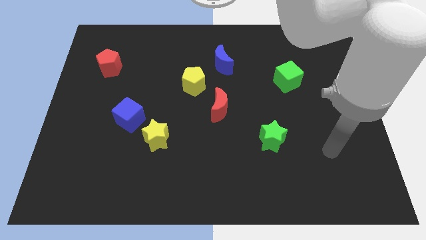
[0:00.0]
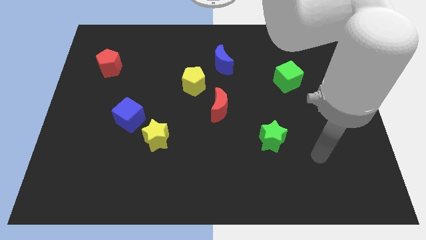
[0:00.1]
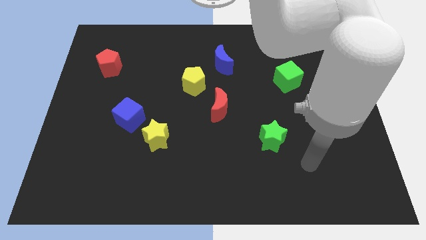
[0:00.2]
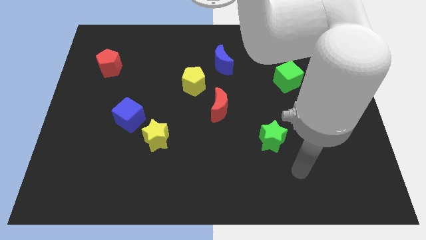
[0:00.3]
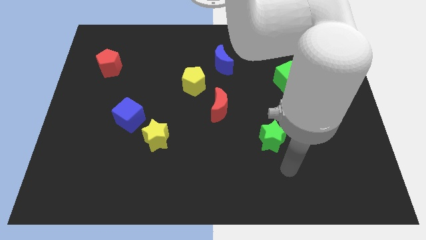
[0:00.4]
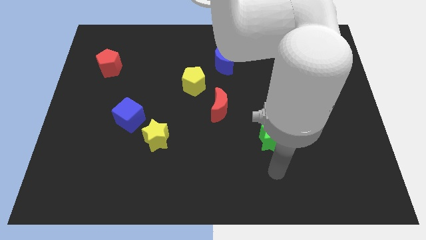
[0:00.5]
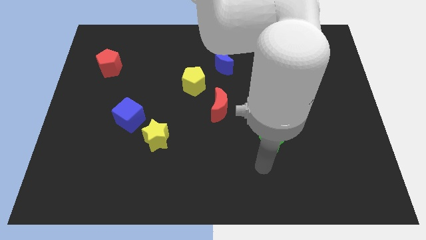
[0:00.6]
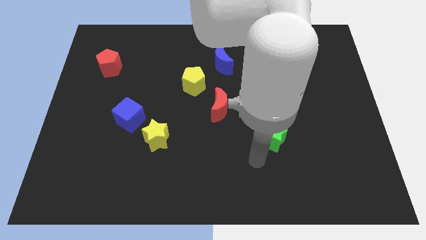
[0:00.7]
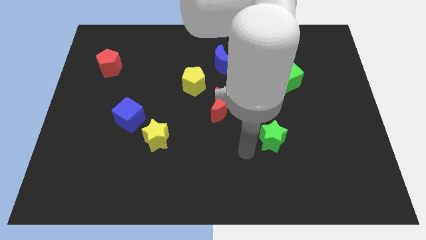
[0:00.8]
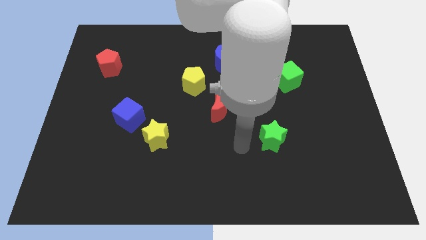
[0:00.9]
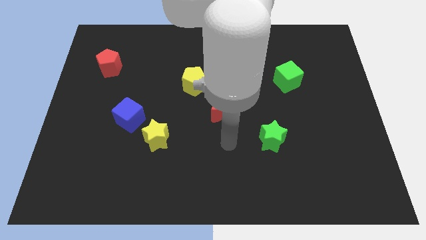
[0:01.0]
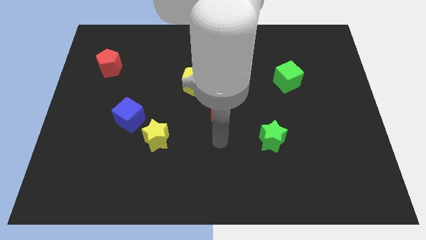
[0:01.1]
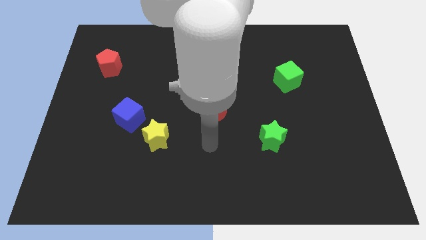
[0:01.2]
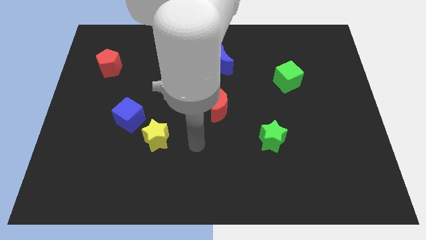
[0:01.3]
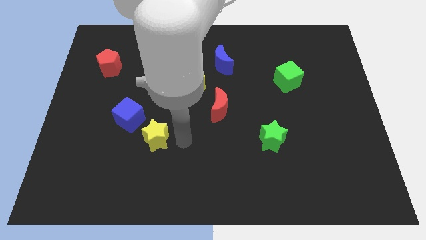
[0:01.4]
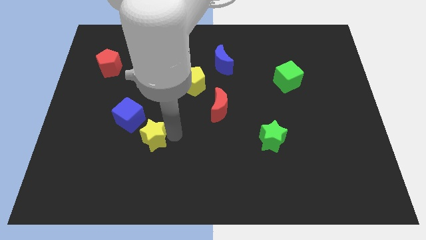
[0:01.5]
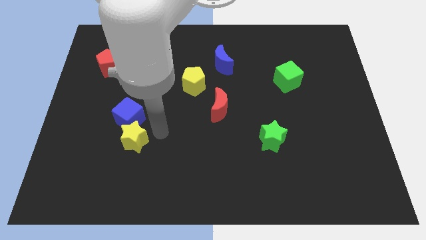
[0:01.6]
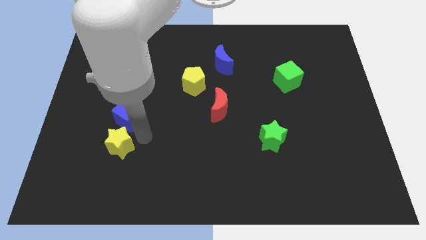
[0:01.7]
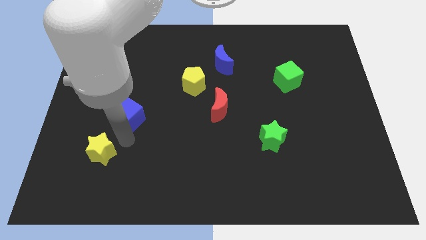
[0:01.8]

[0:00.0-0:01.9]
move the blue cube away from the yellow star

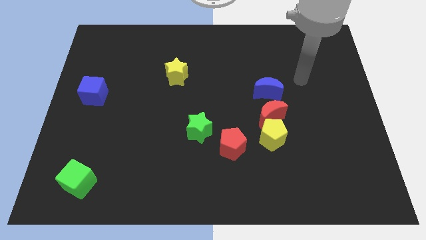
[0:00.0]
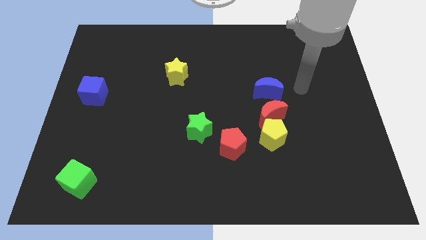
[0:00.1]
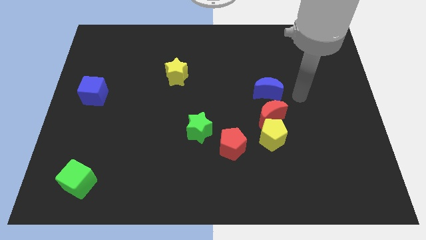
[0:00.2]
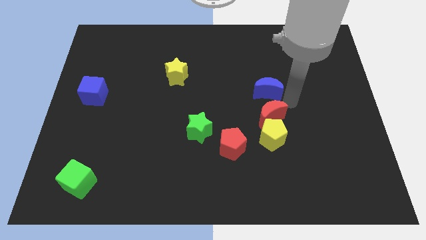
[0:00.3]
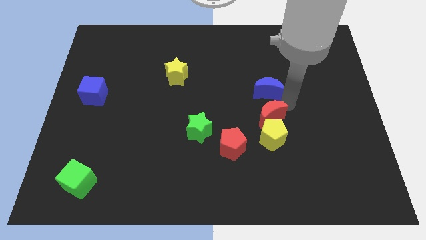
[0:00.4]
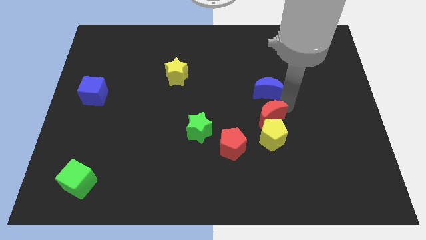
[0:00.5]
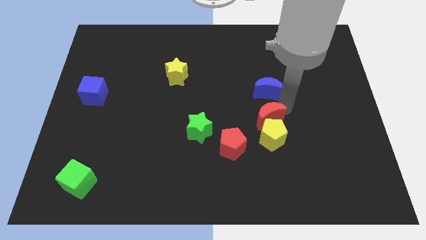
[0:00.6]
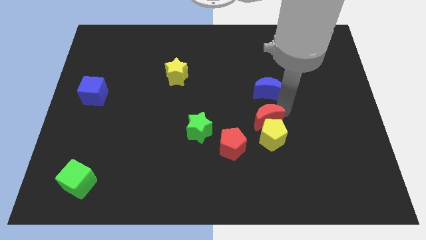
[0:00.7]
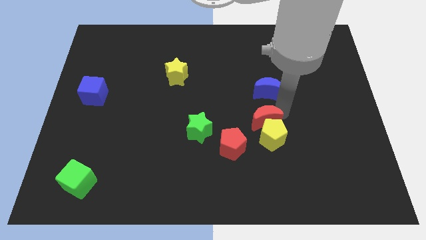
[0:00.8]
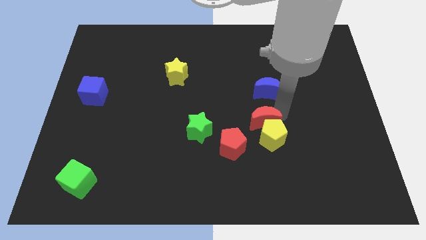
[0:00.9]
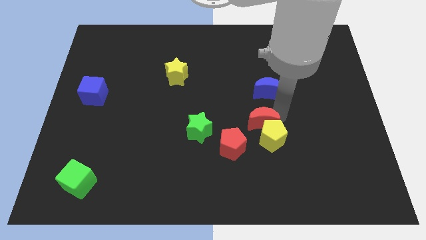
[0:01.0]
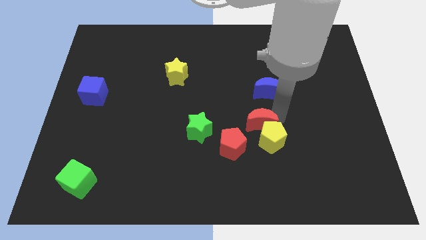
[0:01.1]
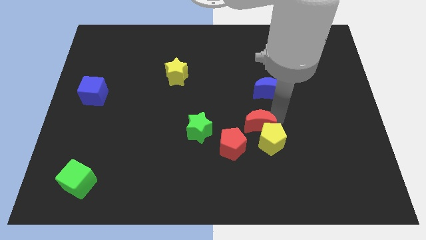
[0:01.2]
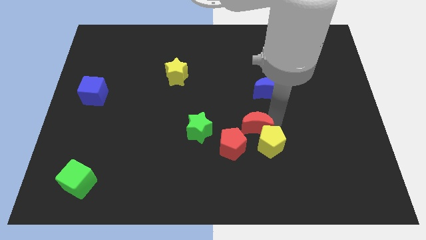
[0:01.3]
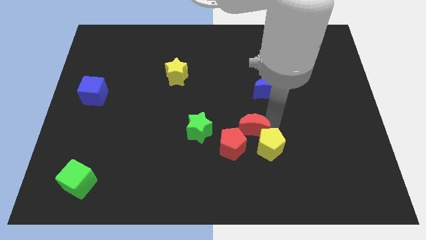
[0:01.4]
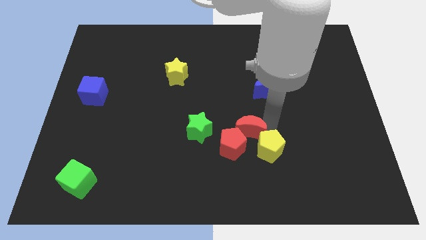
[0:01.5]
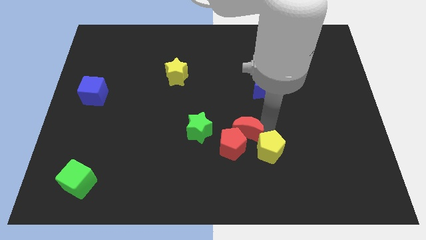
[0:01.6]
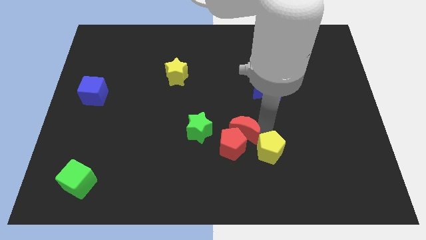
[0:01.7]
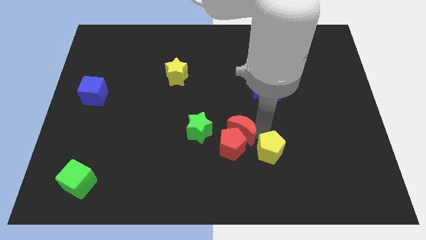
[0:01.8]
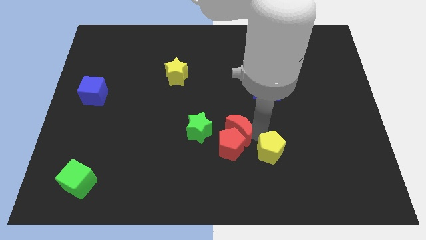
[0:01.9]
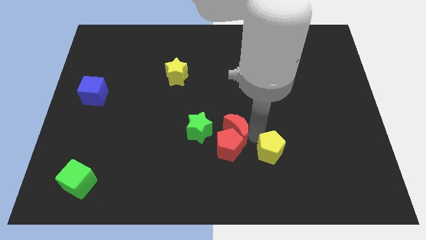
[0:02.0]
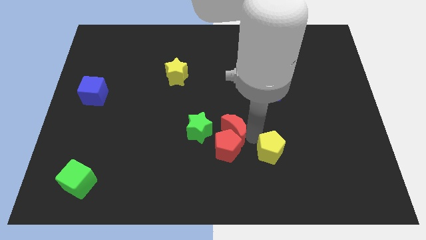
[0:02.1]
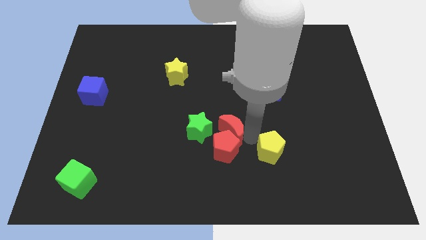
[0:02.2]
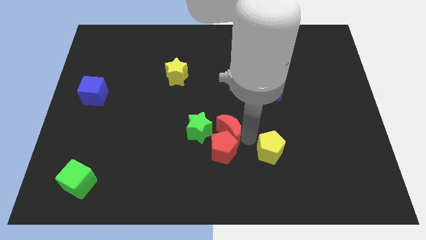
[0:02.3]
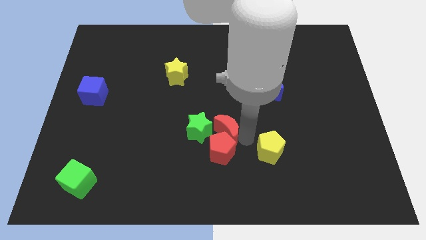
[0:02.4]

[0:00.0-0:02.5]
move the red moon away from the yellow pentagon and blue moon

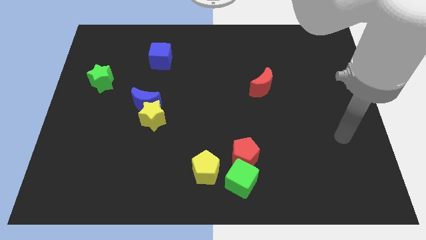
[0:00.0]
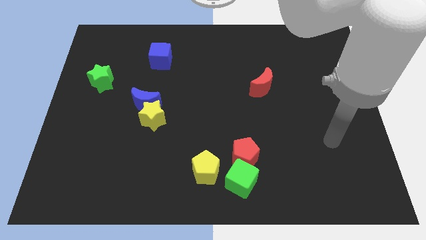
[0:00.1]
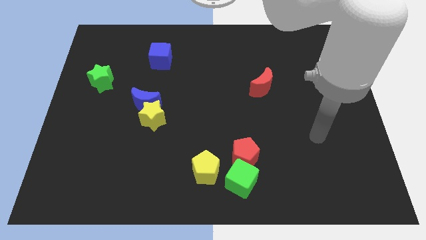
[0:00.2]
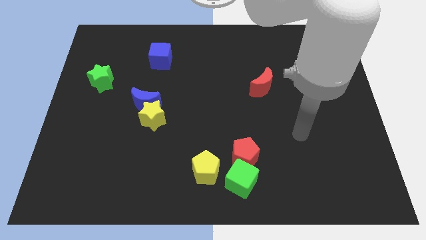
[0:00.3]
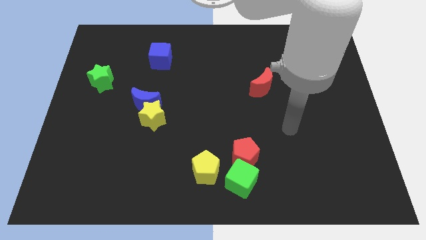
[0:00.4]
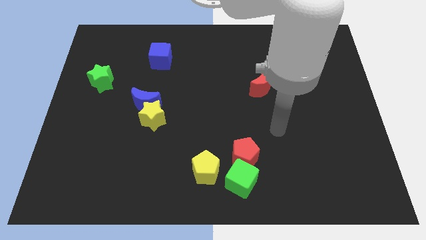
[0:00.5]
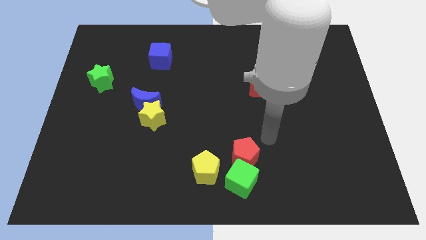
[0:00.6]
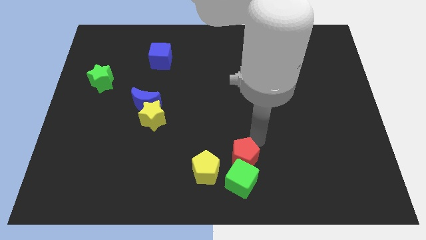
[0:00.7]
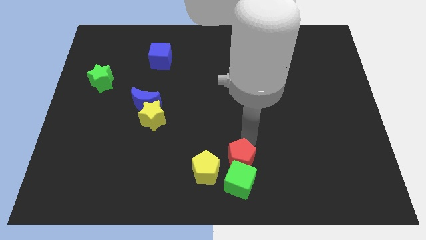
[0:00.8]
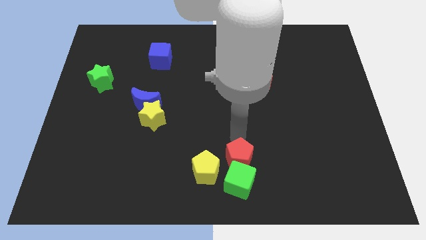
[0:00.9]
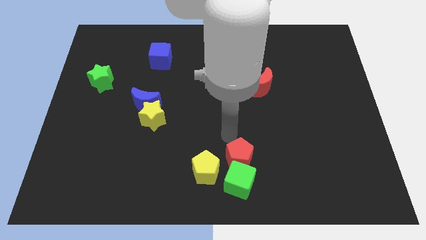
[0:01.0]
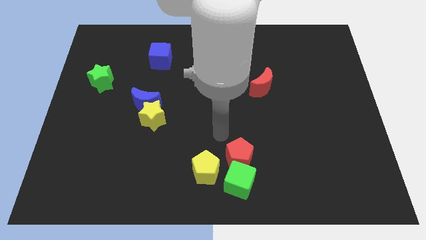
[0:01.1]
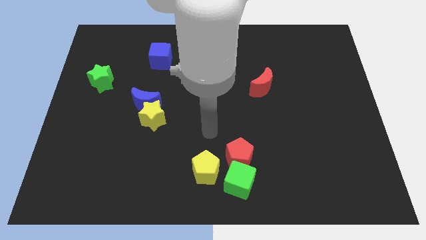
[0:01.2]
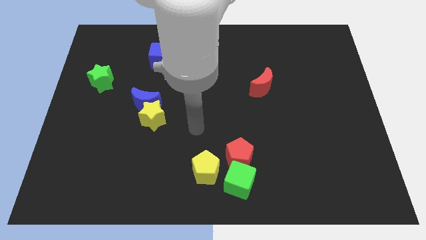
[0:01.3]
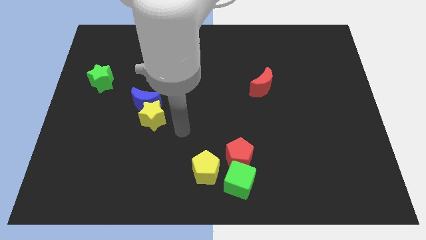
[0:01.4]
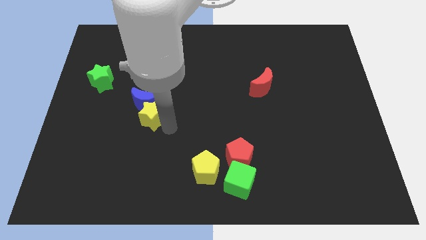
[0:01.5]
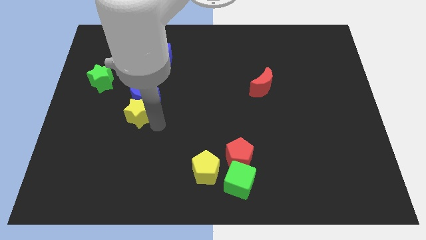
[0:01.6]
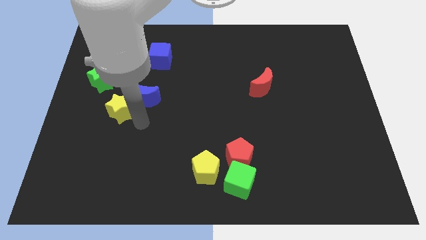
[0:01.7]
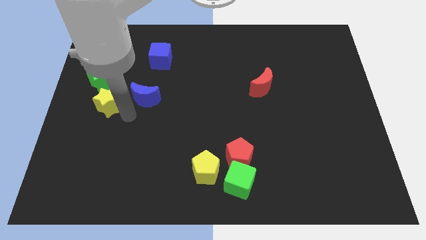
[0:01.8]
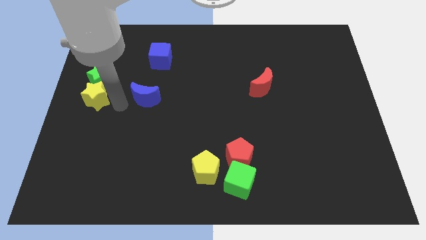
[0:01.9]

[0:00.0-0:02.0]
move the blue moon away from the yellow star

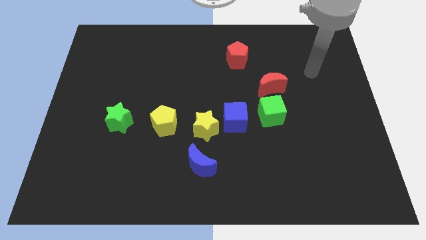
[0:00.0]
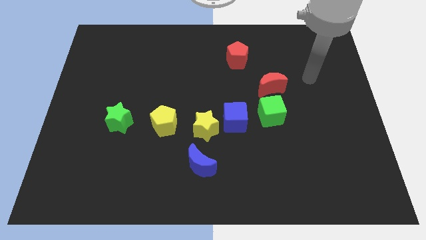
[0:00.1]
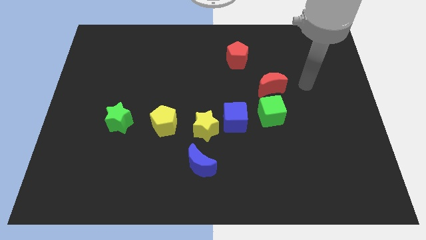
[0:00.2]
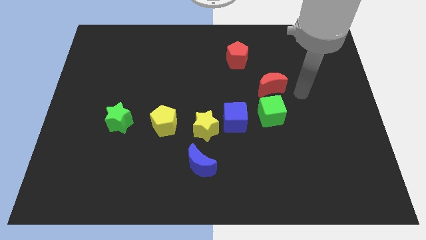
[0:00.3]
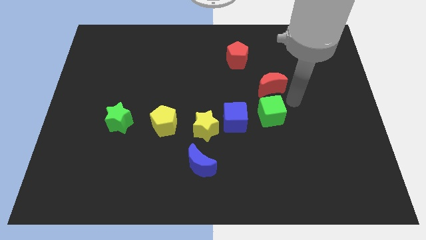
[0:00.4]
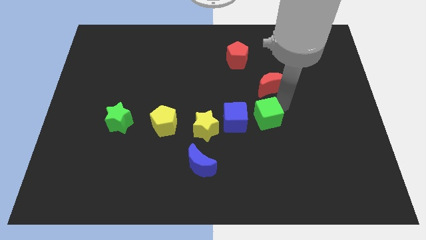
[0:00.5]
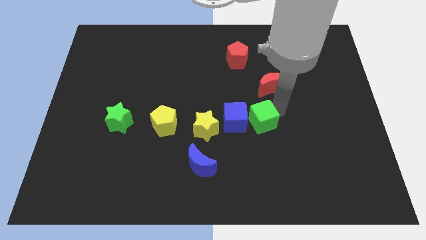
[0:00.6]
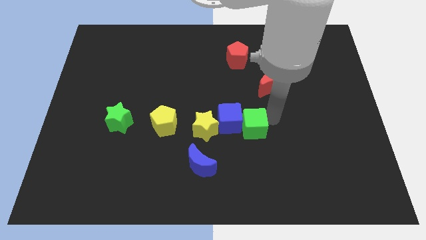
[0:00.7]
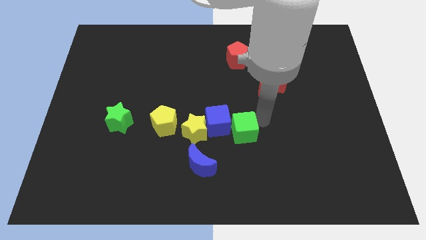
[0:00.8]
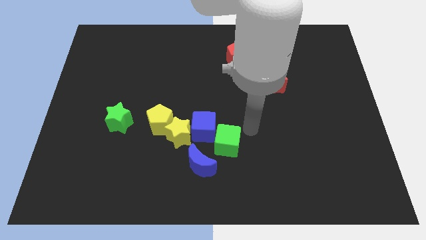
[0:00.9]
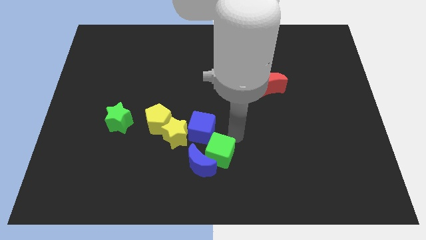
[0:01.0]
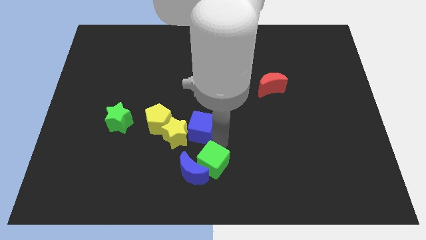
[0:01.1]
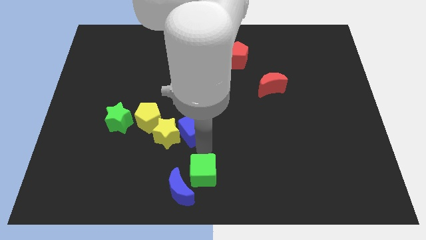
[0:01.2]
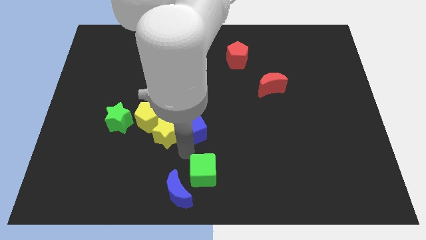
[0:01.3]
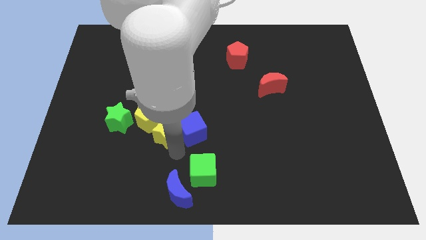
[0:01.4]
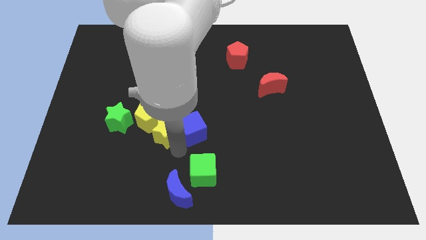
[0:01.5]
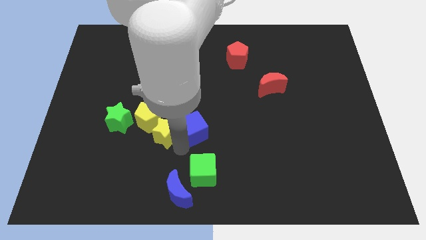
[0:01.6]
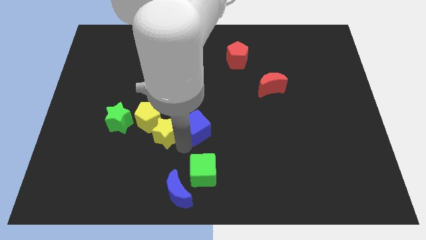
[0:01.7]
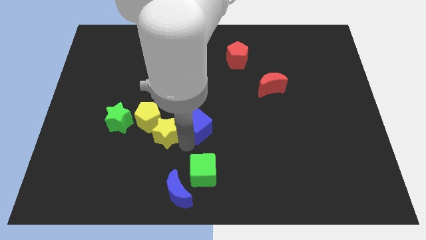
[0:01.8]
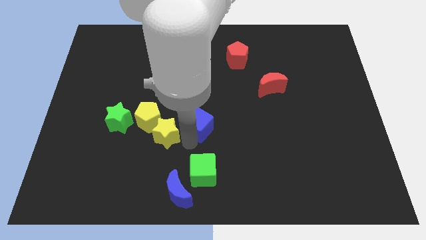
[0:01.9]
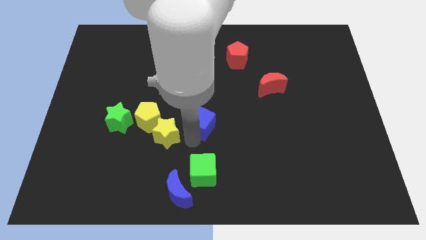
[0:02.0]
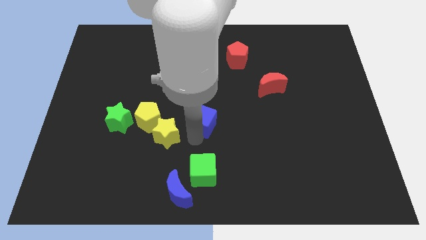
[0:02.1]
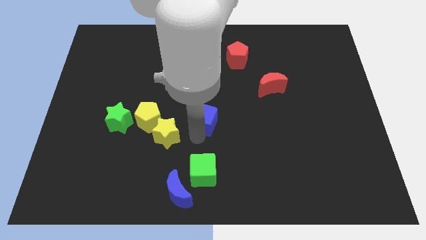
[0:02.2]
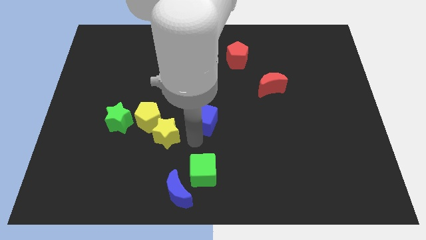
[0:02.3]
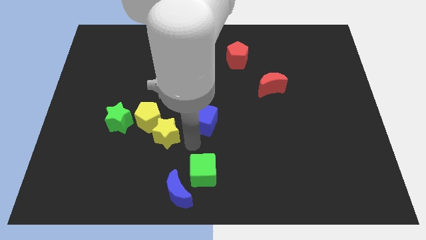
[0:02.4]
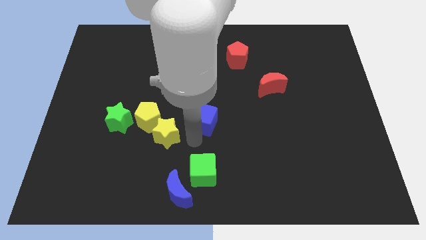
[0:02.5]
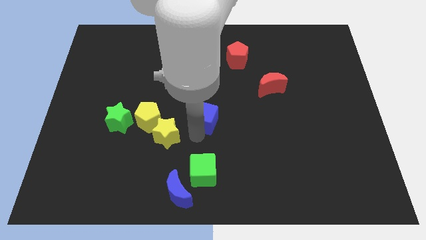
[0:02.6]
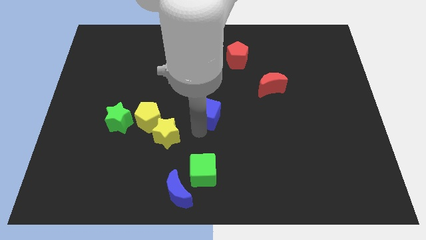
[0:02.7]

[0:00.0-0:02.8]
move the blue cube away from the yellow star and green cube

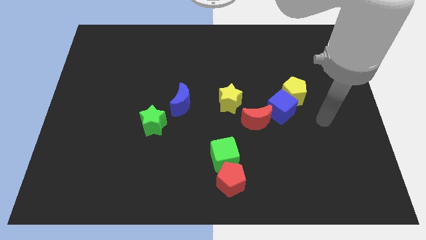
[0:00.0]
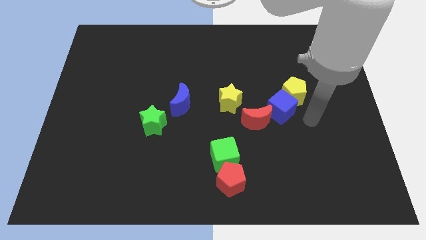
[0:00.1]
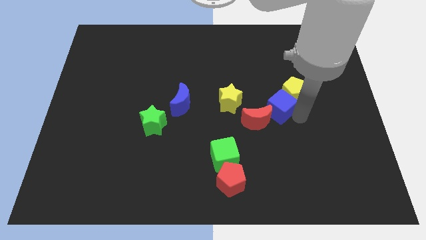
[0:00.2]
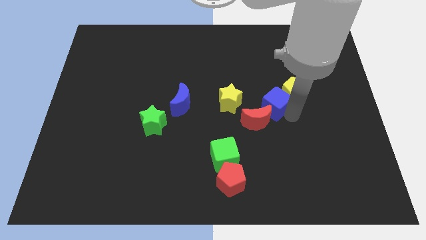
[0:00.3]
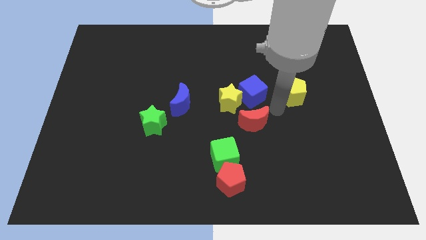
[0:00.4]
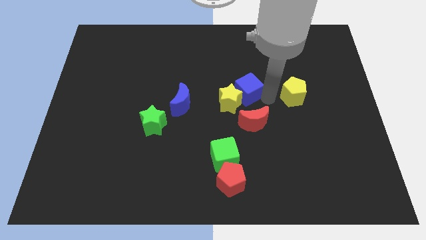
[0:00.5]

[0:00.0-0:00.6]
separate the yellow pentagon from the blue cube
